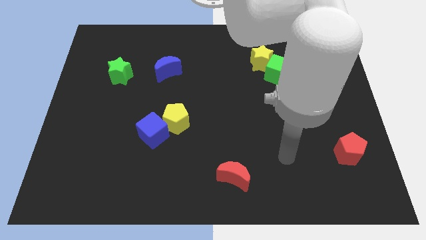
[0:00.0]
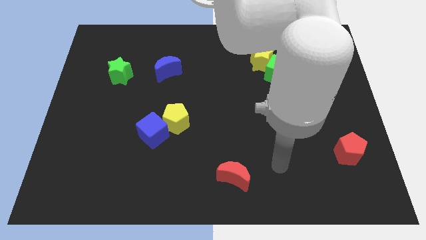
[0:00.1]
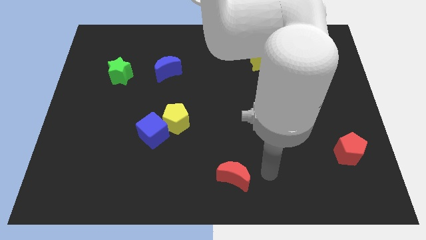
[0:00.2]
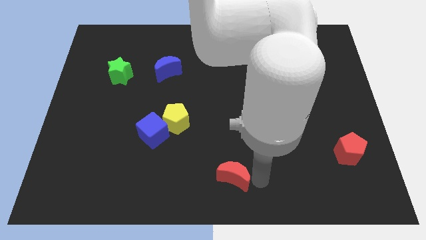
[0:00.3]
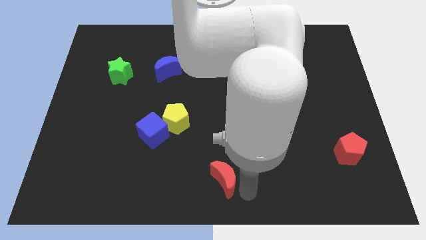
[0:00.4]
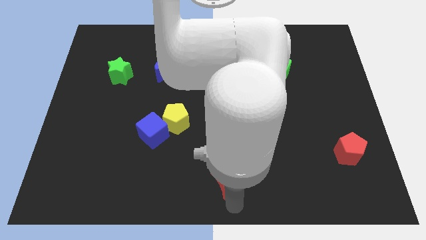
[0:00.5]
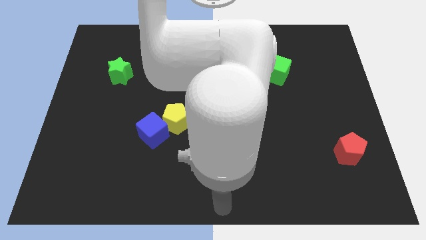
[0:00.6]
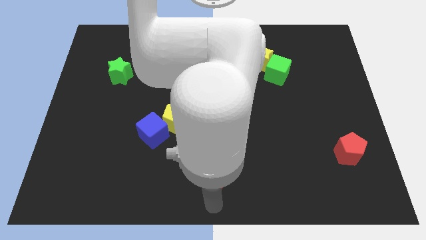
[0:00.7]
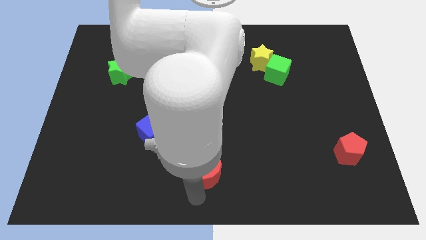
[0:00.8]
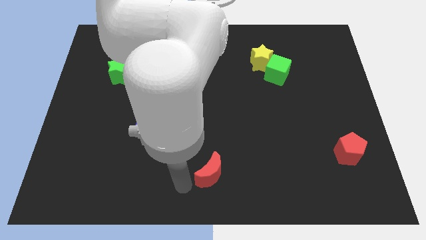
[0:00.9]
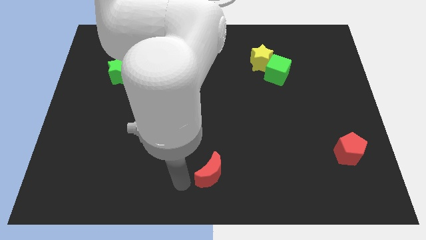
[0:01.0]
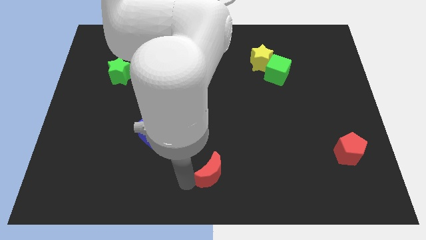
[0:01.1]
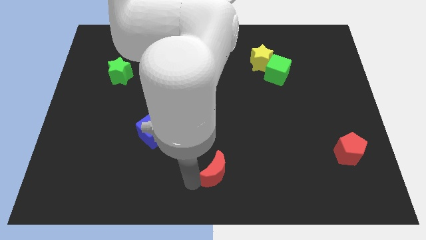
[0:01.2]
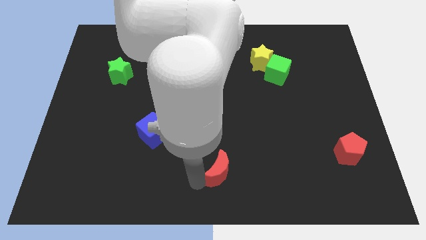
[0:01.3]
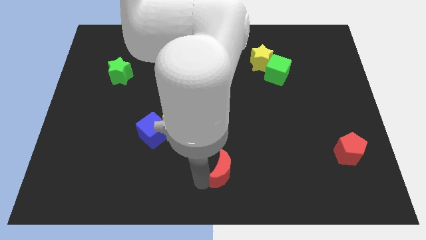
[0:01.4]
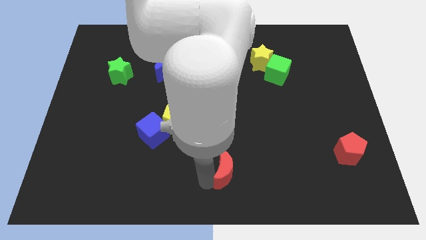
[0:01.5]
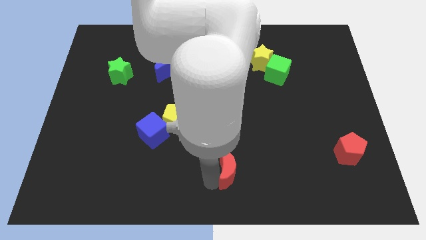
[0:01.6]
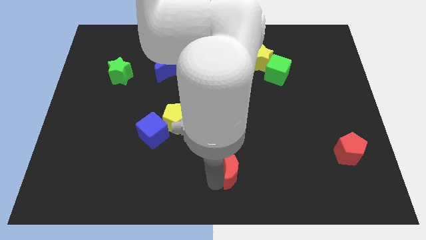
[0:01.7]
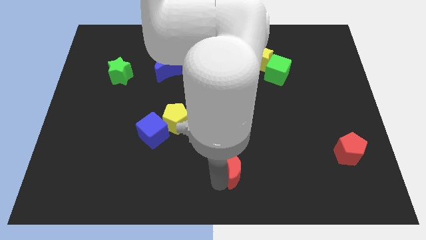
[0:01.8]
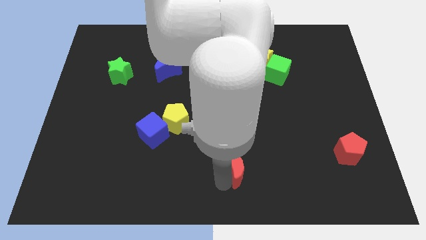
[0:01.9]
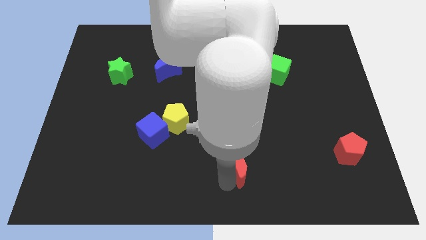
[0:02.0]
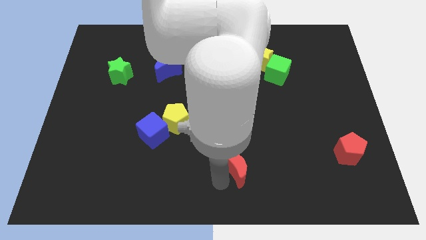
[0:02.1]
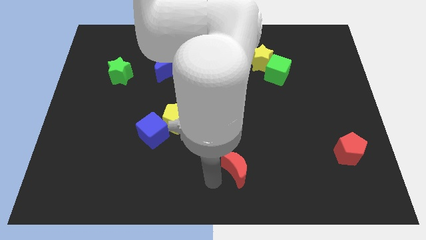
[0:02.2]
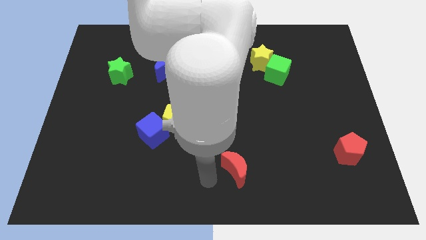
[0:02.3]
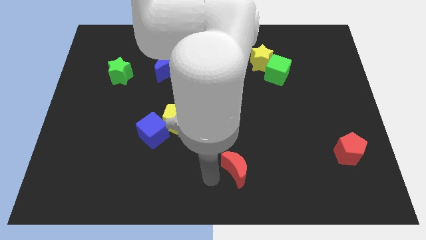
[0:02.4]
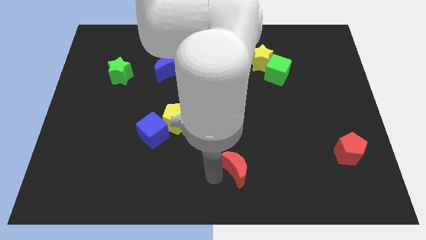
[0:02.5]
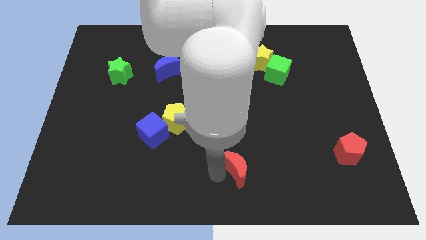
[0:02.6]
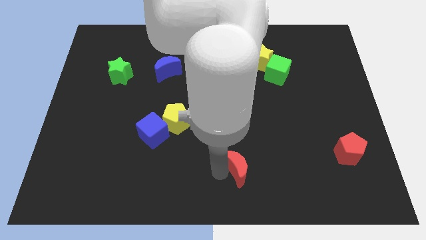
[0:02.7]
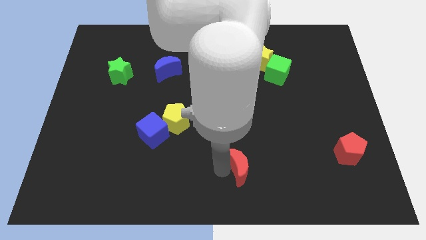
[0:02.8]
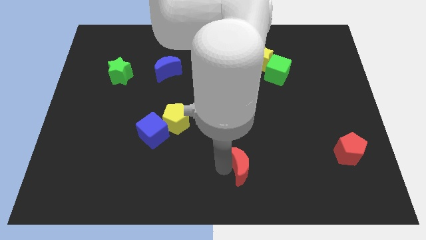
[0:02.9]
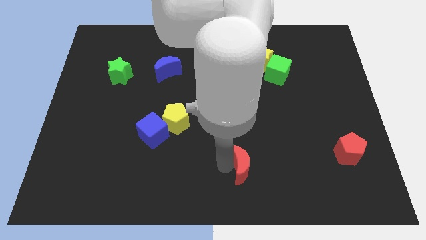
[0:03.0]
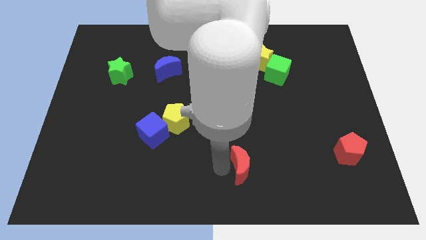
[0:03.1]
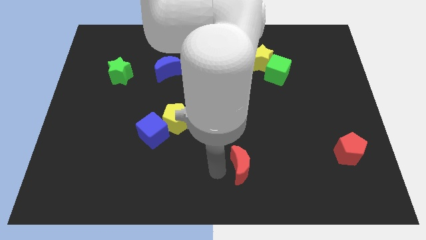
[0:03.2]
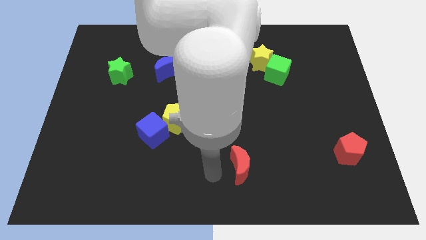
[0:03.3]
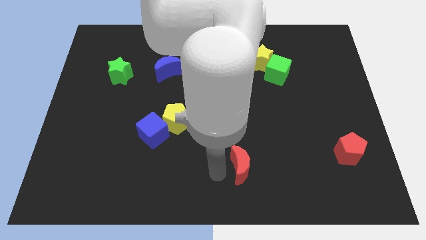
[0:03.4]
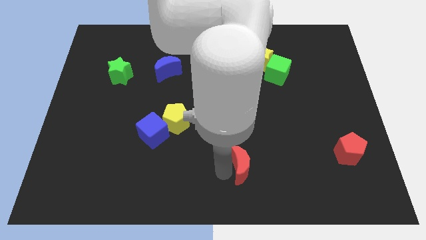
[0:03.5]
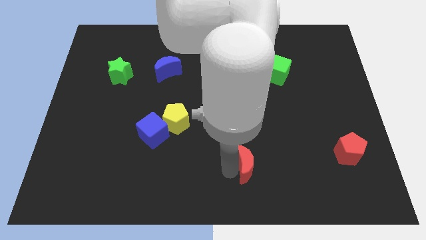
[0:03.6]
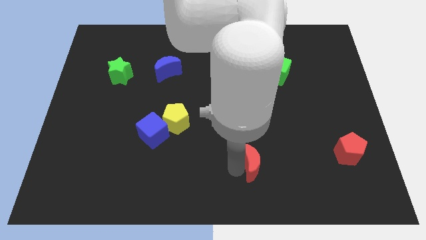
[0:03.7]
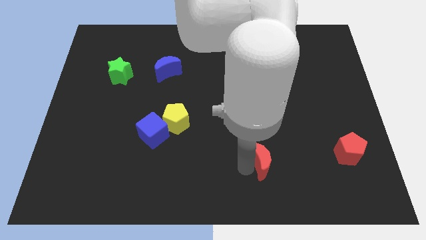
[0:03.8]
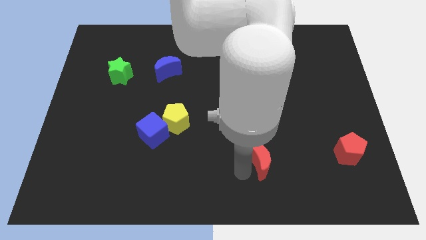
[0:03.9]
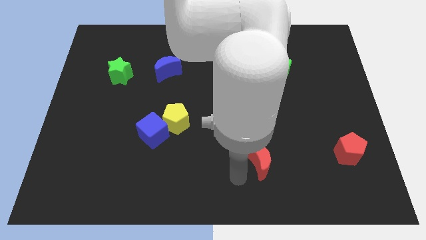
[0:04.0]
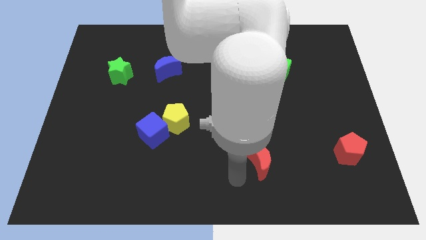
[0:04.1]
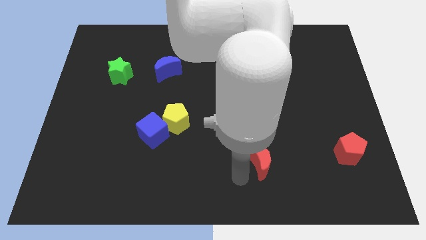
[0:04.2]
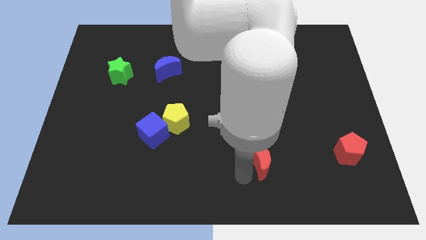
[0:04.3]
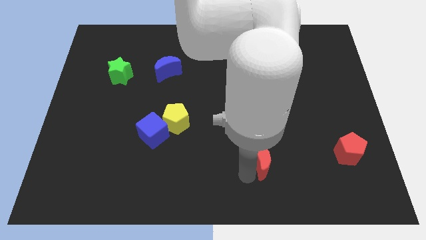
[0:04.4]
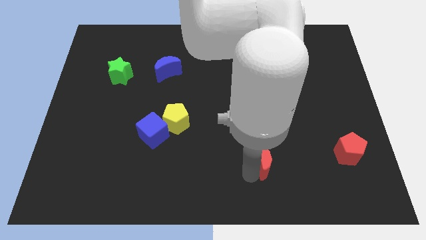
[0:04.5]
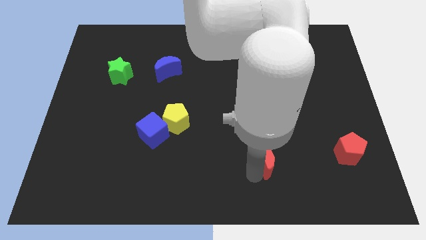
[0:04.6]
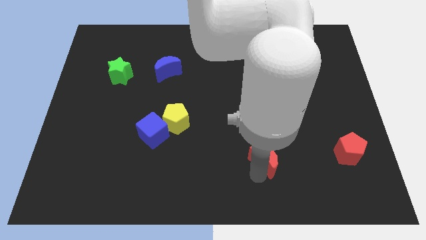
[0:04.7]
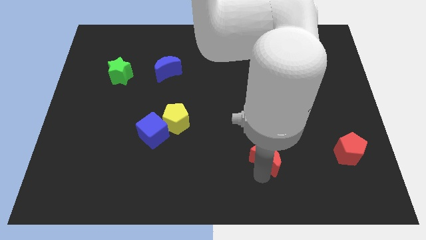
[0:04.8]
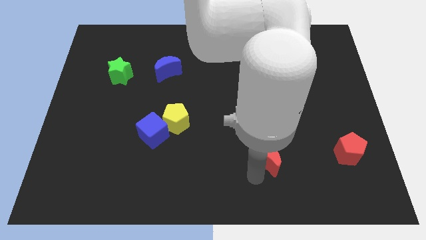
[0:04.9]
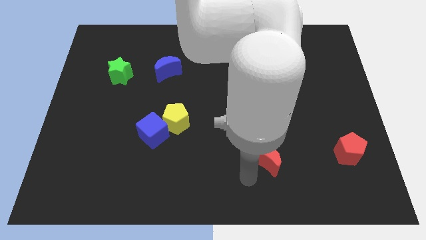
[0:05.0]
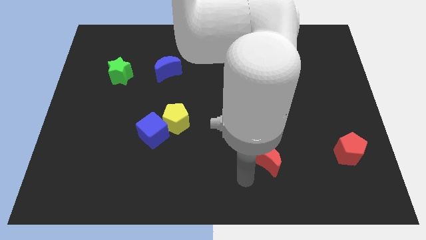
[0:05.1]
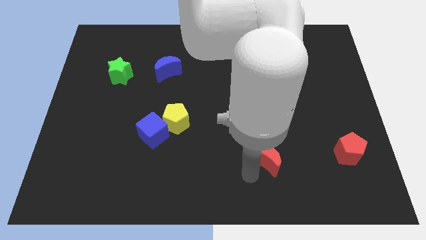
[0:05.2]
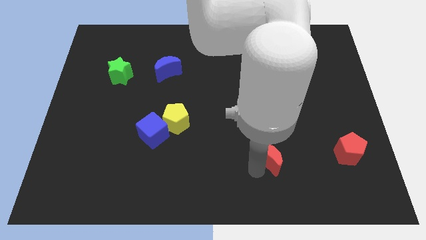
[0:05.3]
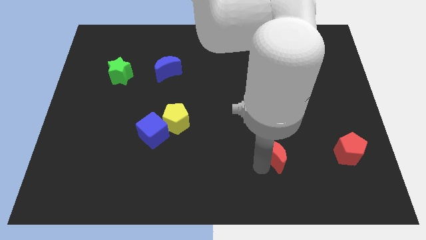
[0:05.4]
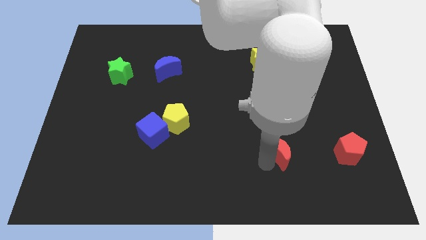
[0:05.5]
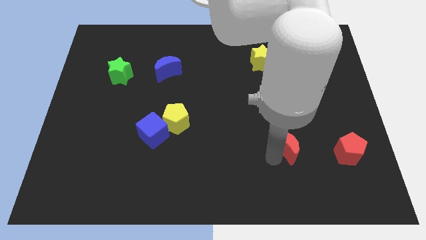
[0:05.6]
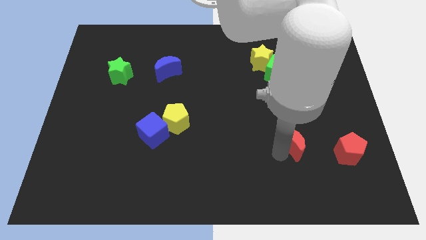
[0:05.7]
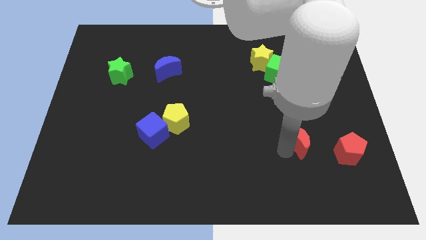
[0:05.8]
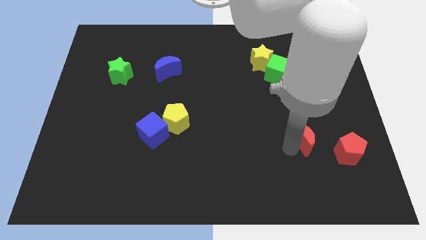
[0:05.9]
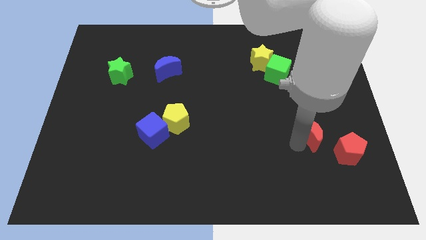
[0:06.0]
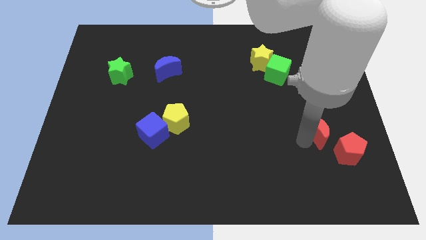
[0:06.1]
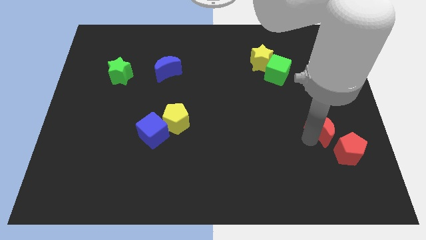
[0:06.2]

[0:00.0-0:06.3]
slide the red moon to the top of the red pentagon

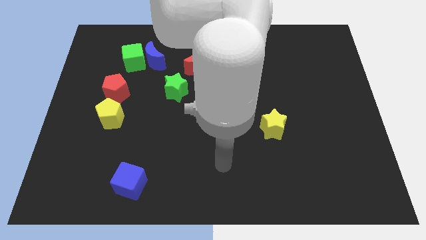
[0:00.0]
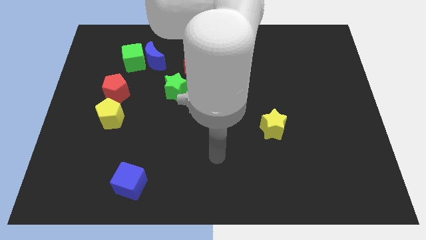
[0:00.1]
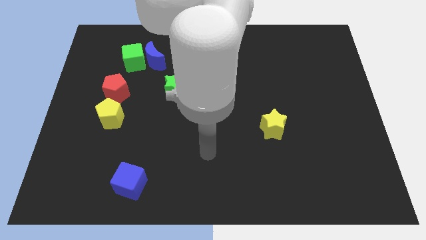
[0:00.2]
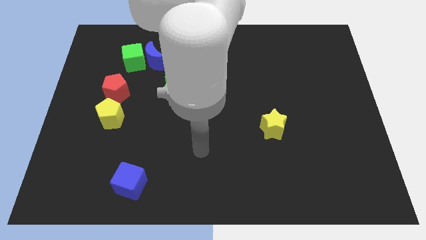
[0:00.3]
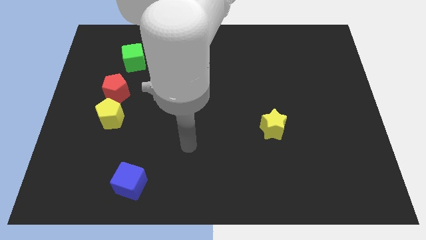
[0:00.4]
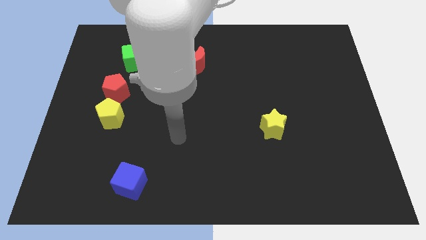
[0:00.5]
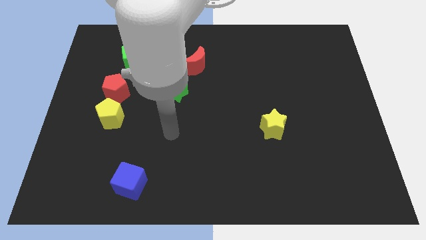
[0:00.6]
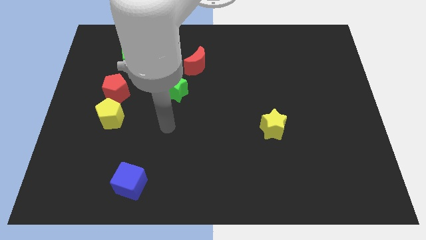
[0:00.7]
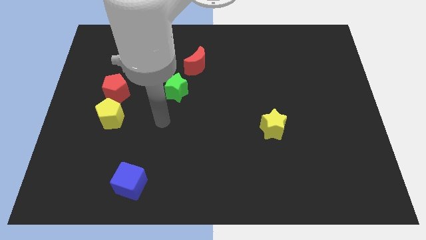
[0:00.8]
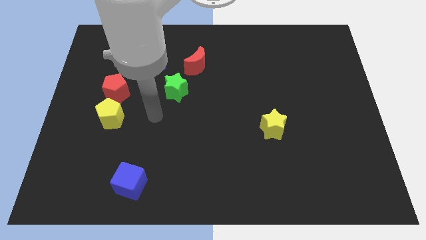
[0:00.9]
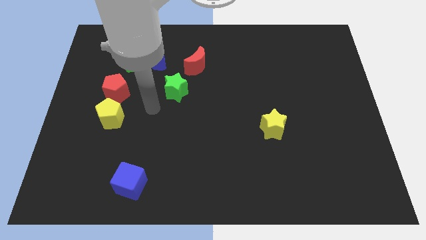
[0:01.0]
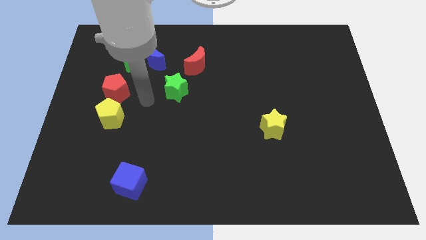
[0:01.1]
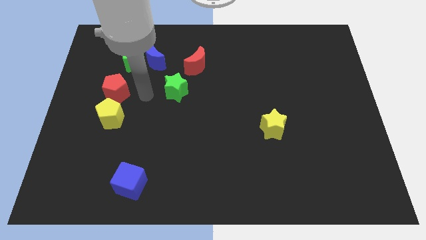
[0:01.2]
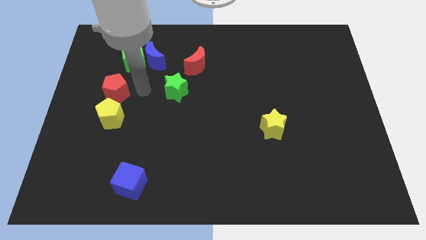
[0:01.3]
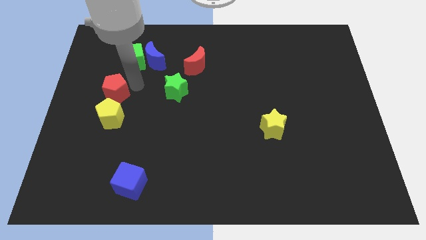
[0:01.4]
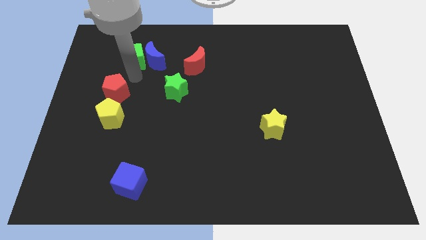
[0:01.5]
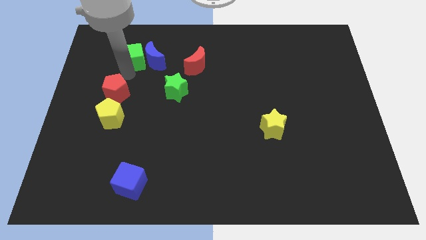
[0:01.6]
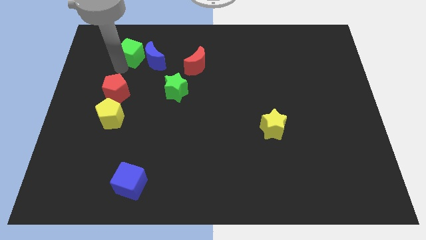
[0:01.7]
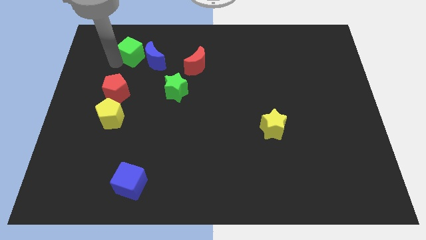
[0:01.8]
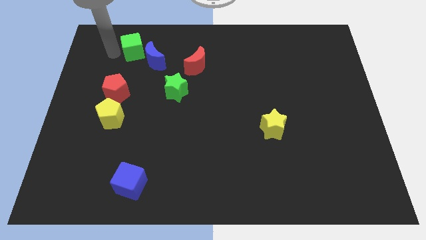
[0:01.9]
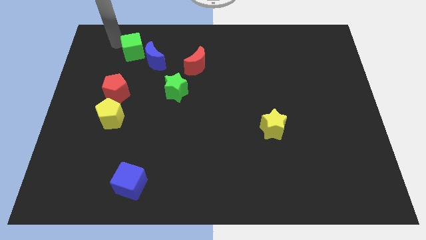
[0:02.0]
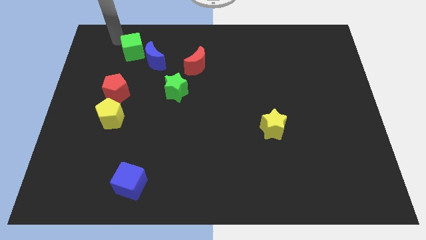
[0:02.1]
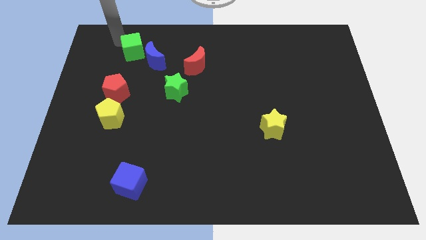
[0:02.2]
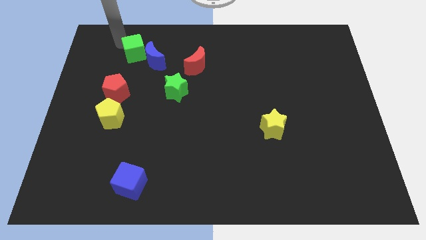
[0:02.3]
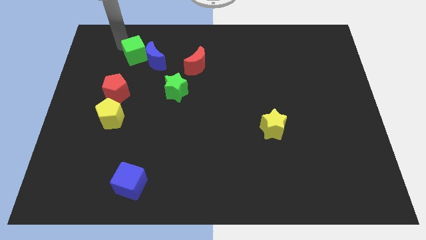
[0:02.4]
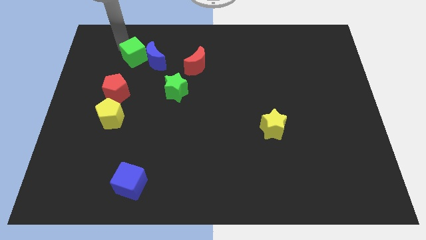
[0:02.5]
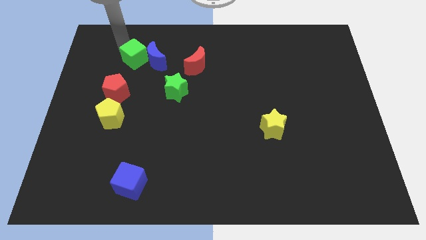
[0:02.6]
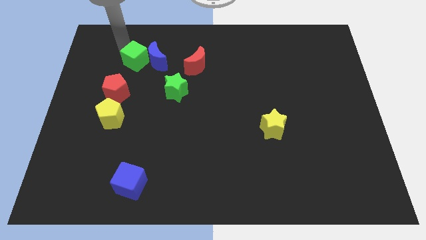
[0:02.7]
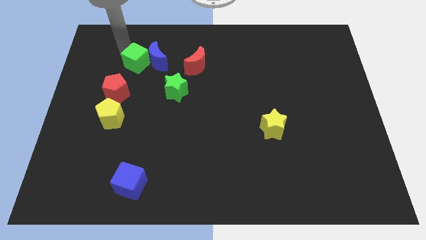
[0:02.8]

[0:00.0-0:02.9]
move the green cube to the left side of the red moon
